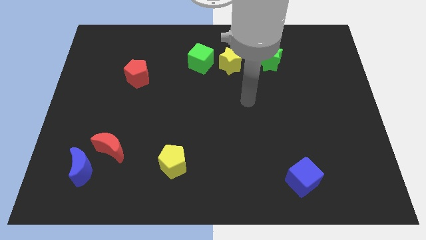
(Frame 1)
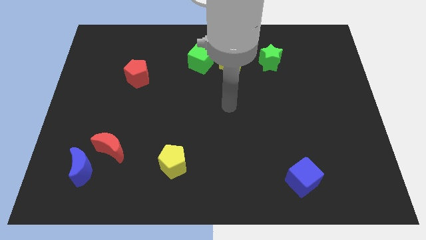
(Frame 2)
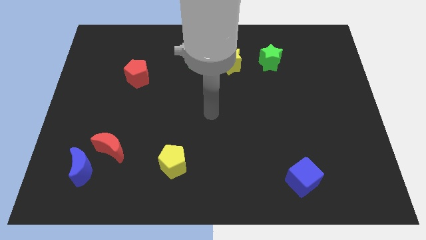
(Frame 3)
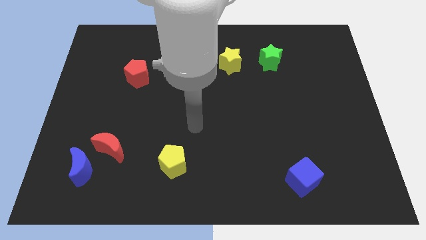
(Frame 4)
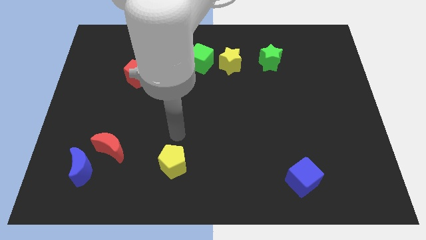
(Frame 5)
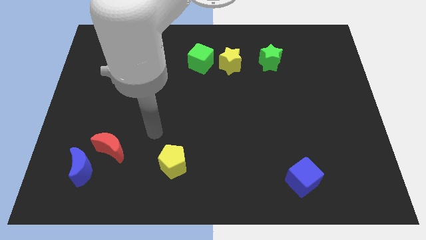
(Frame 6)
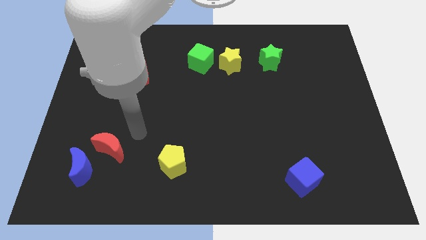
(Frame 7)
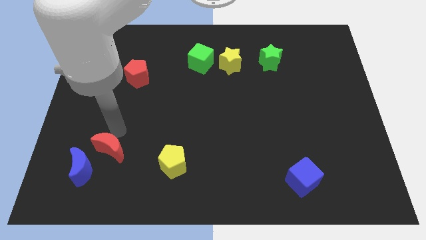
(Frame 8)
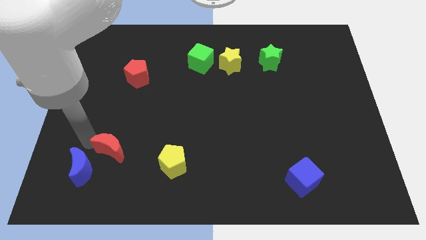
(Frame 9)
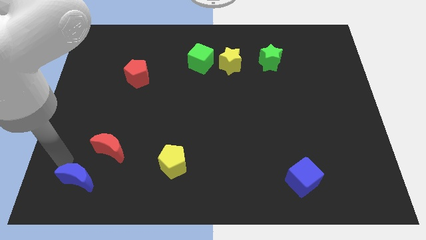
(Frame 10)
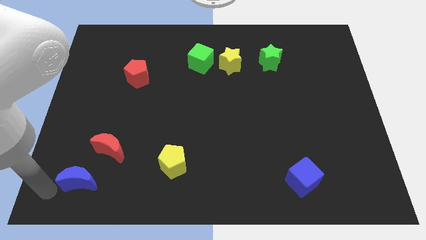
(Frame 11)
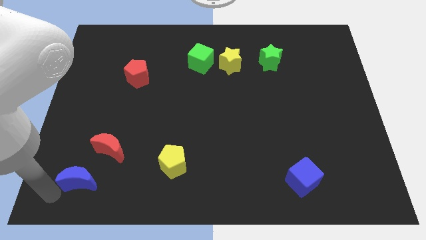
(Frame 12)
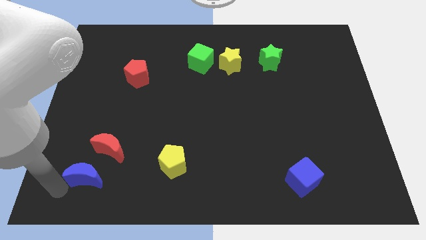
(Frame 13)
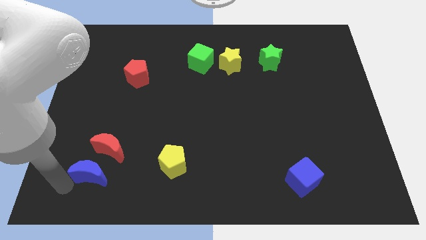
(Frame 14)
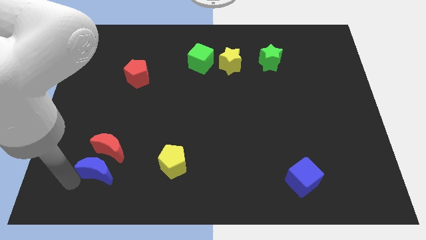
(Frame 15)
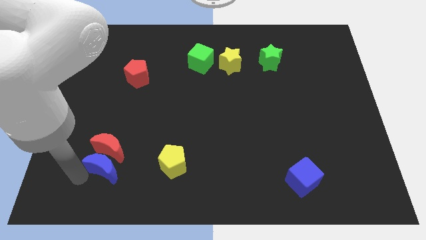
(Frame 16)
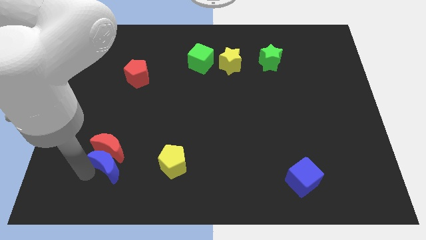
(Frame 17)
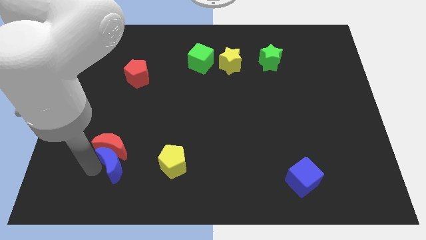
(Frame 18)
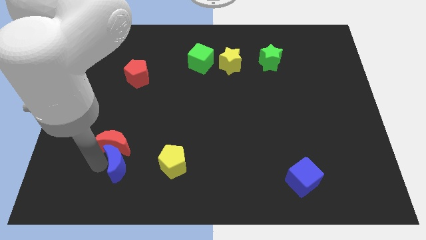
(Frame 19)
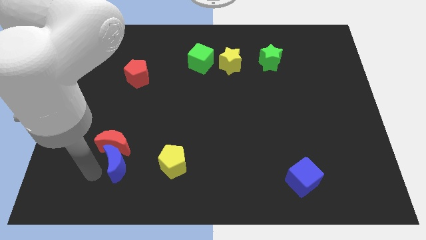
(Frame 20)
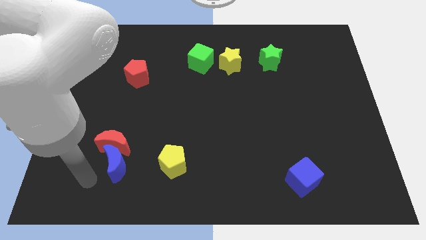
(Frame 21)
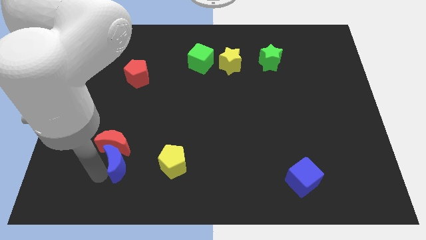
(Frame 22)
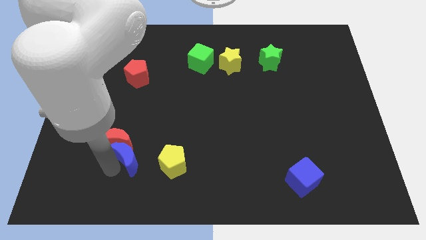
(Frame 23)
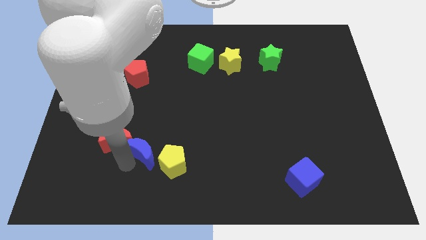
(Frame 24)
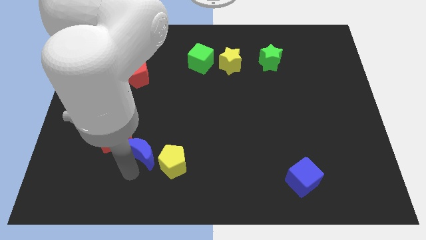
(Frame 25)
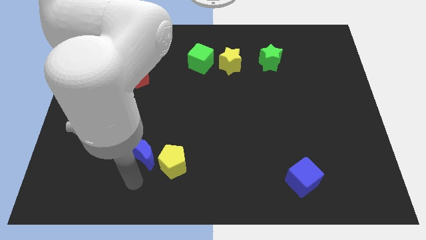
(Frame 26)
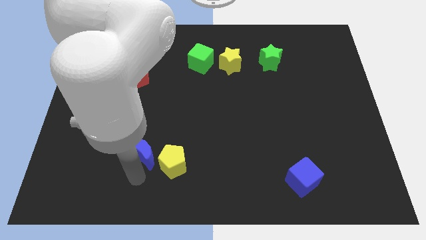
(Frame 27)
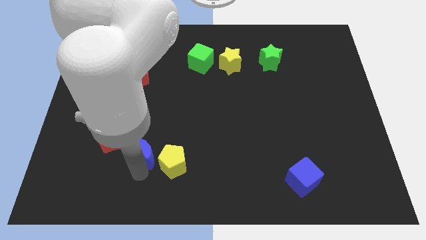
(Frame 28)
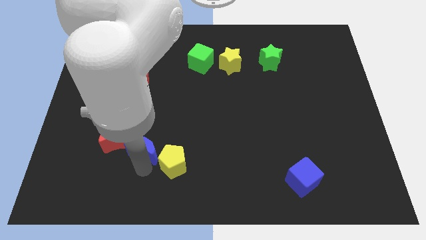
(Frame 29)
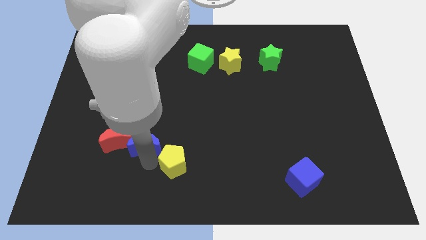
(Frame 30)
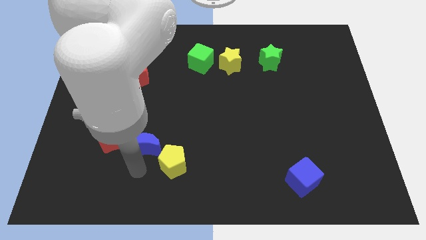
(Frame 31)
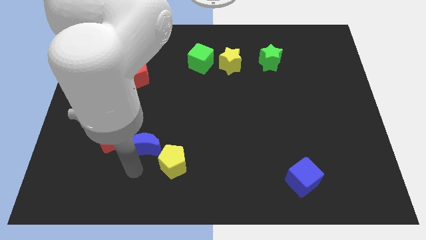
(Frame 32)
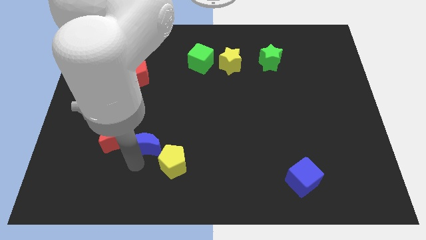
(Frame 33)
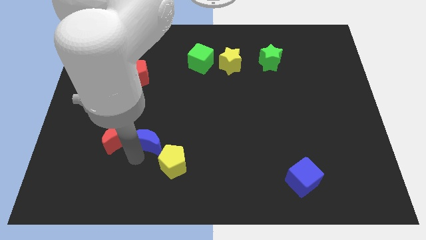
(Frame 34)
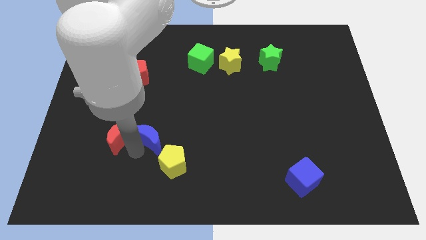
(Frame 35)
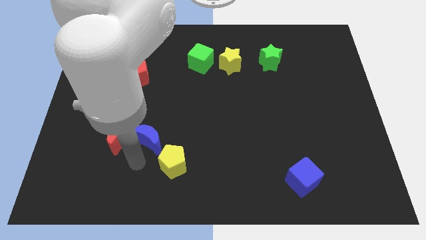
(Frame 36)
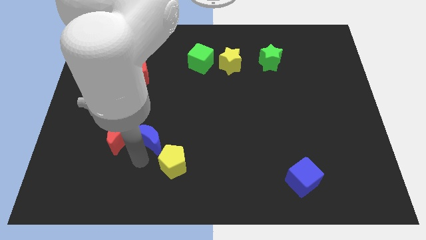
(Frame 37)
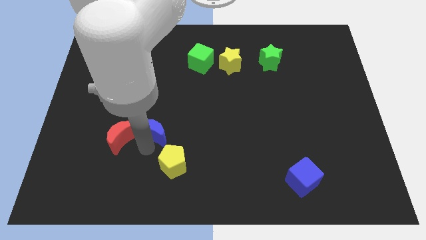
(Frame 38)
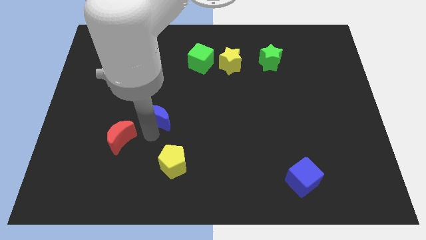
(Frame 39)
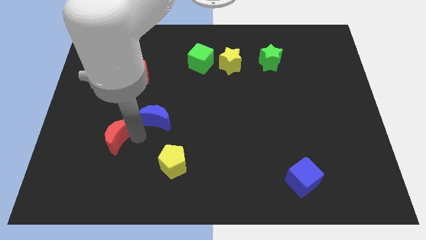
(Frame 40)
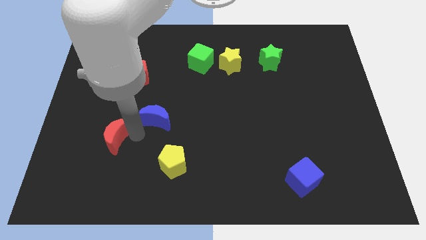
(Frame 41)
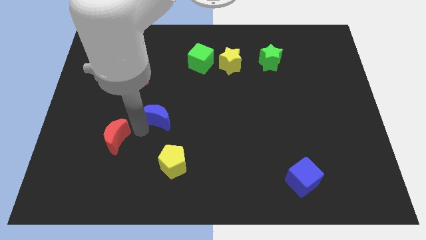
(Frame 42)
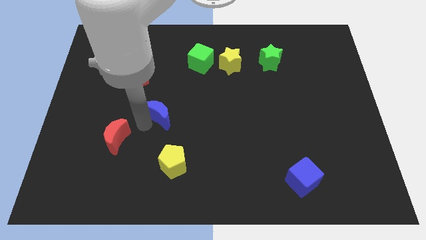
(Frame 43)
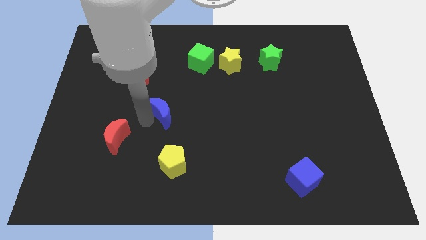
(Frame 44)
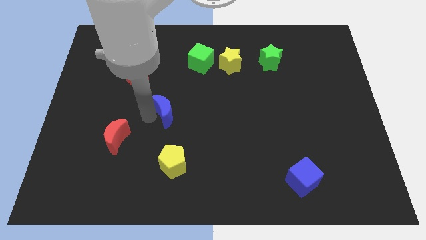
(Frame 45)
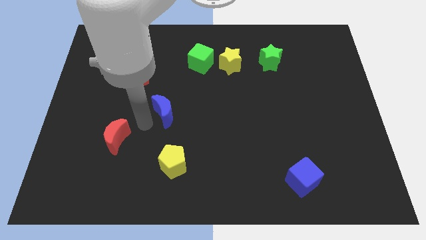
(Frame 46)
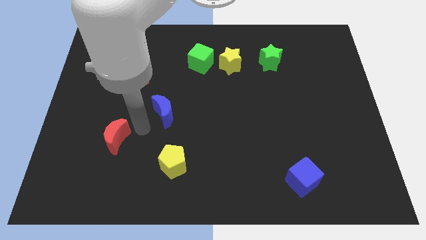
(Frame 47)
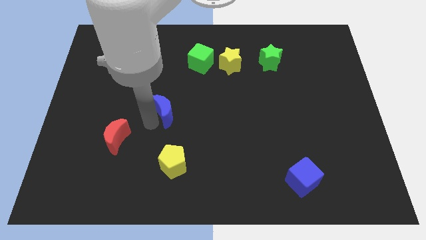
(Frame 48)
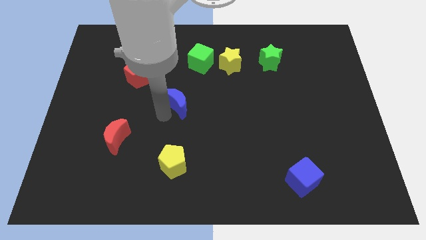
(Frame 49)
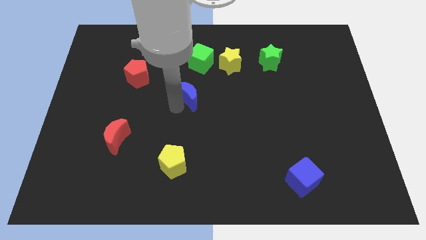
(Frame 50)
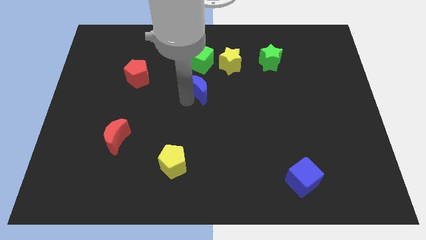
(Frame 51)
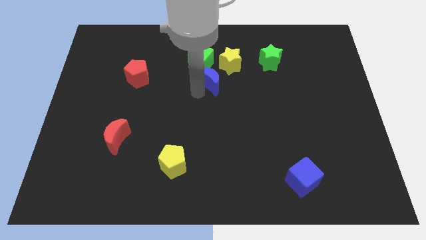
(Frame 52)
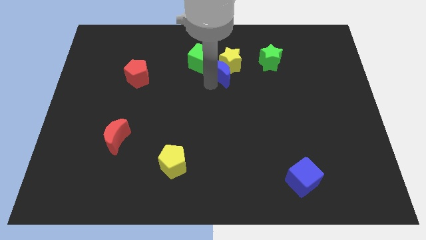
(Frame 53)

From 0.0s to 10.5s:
move the blue moon to the yellow star
